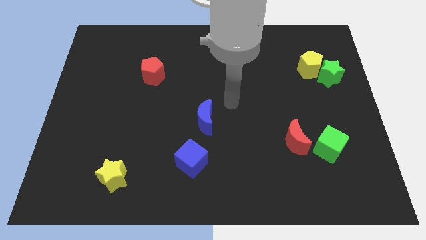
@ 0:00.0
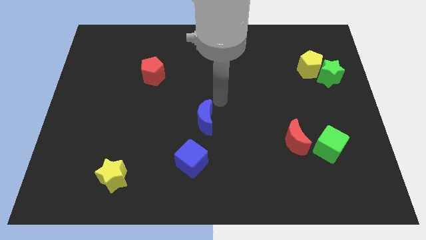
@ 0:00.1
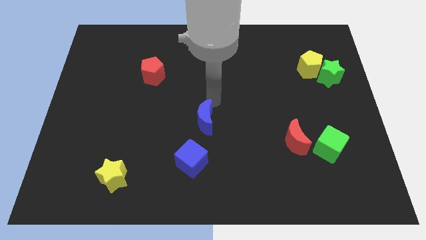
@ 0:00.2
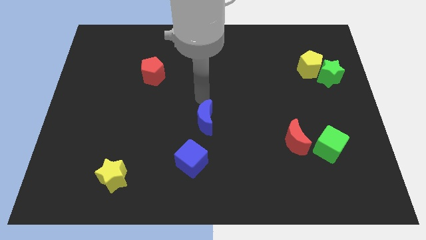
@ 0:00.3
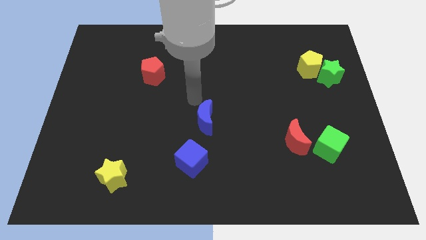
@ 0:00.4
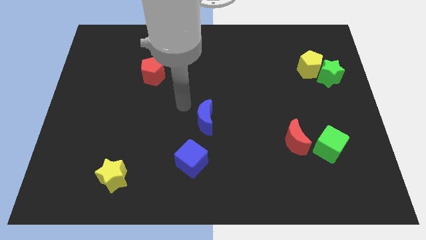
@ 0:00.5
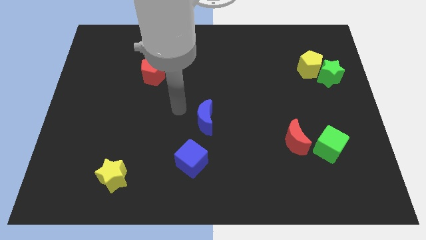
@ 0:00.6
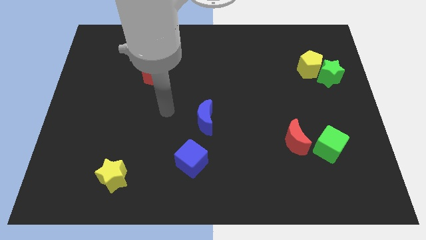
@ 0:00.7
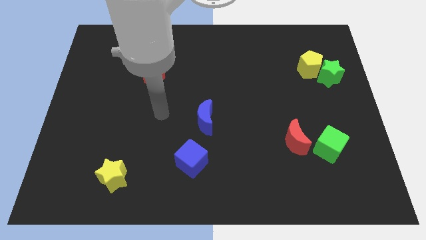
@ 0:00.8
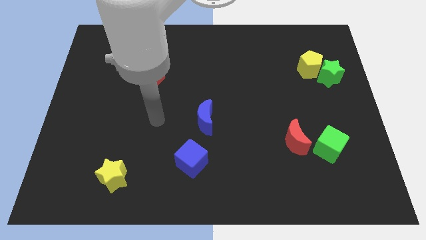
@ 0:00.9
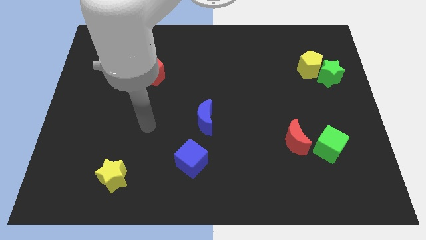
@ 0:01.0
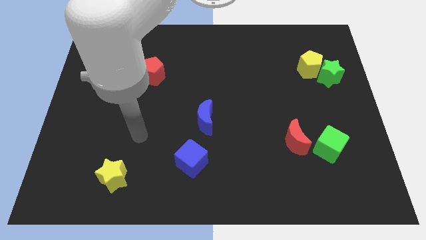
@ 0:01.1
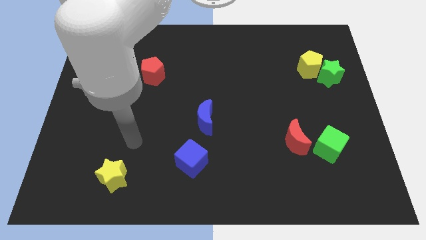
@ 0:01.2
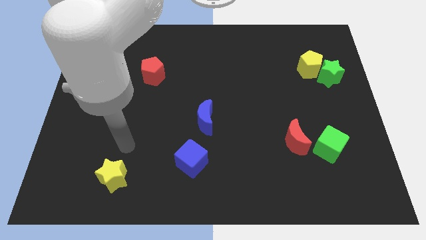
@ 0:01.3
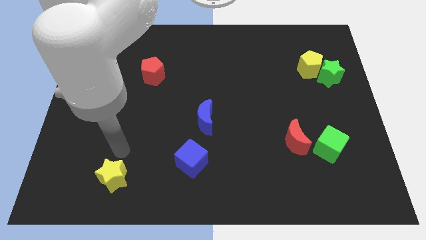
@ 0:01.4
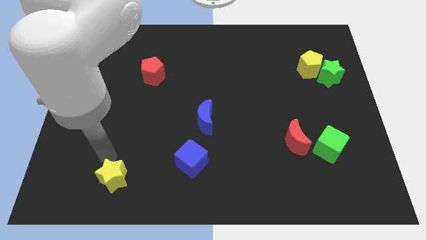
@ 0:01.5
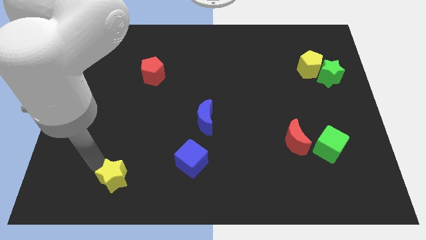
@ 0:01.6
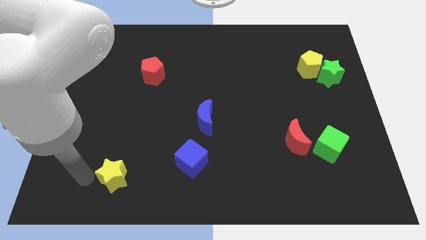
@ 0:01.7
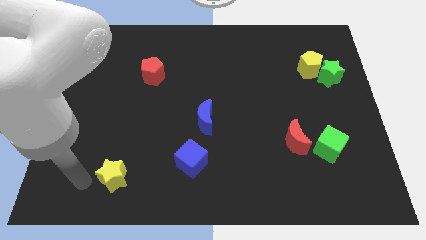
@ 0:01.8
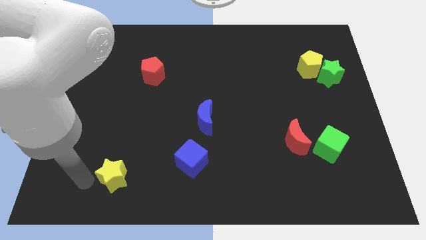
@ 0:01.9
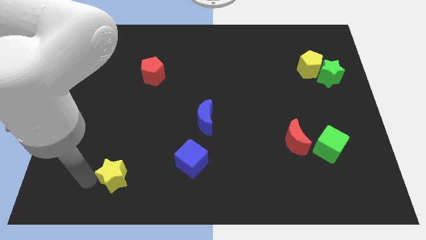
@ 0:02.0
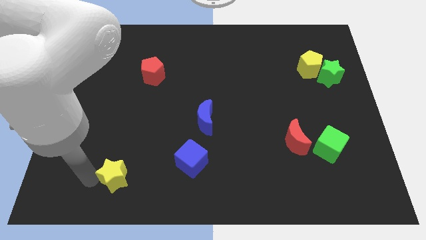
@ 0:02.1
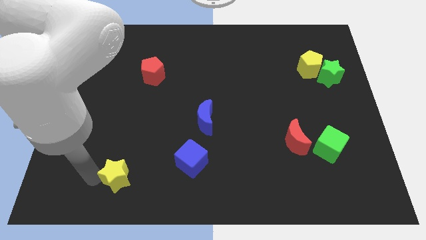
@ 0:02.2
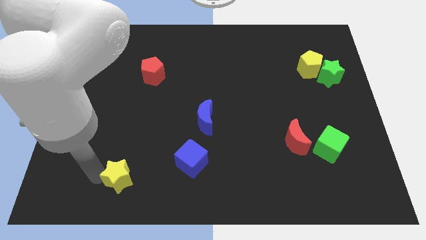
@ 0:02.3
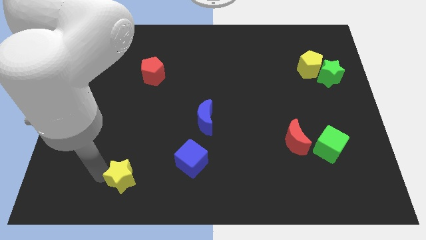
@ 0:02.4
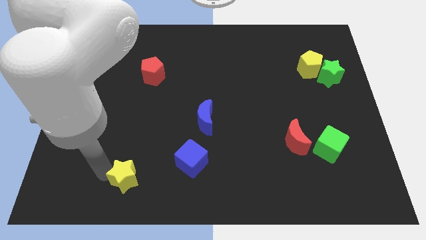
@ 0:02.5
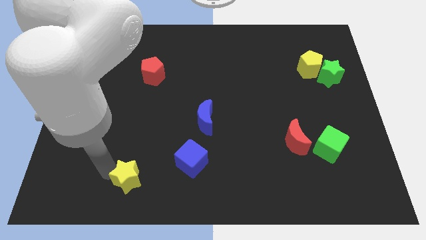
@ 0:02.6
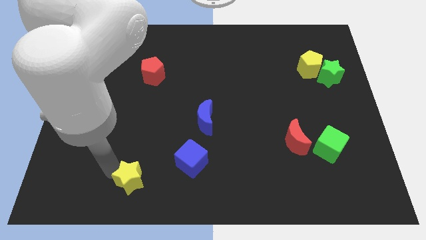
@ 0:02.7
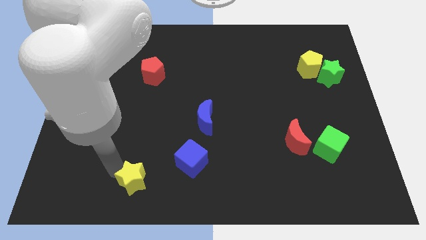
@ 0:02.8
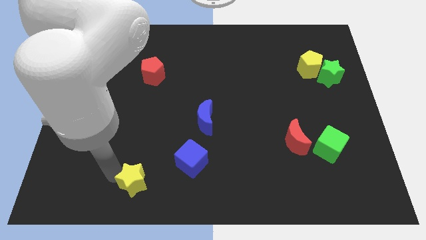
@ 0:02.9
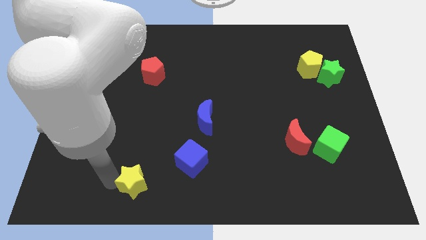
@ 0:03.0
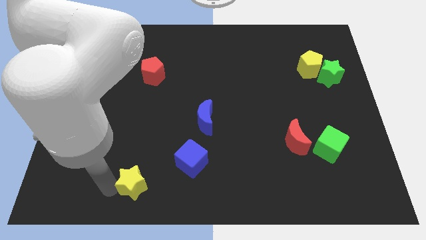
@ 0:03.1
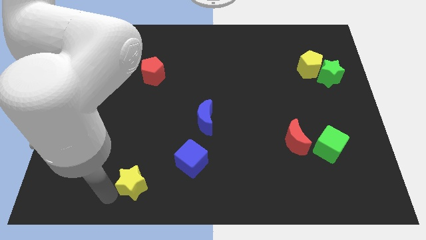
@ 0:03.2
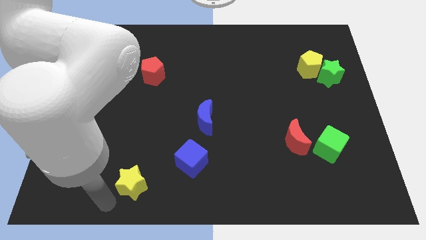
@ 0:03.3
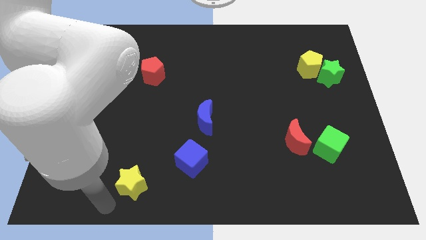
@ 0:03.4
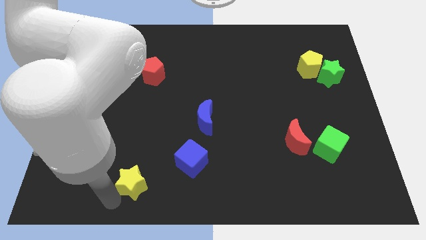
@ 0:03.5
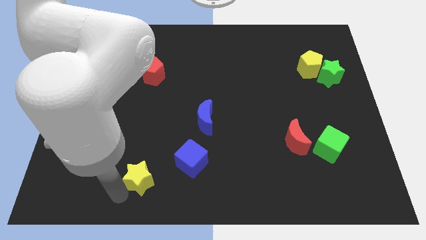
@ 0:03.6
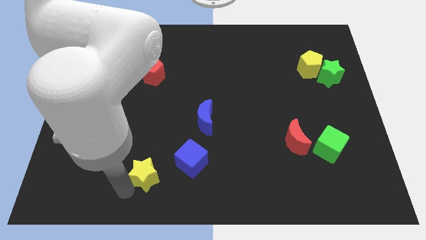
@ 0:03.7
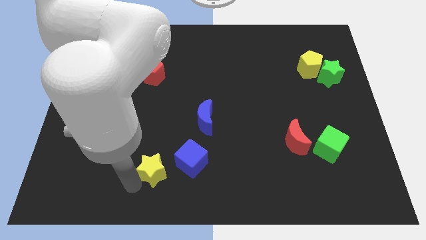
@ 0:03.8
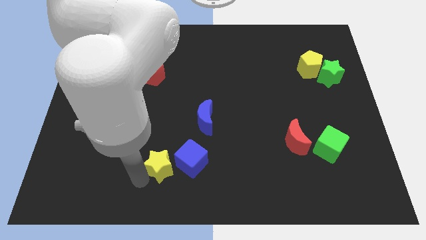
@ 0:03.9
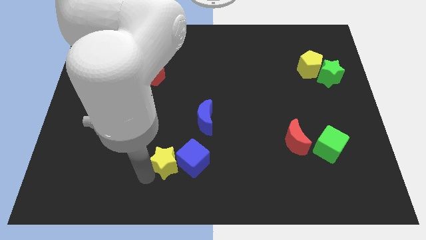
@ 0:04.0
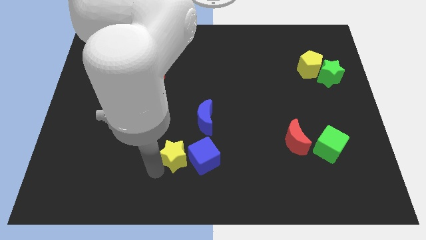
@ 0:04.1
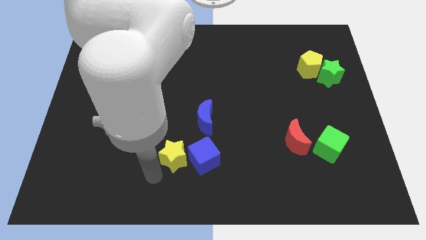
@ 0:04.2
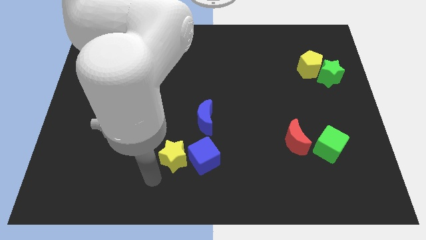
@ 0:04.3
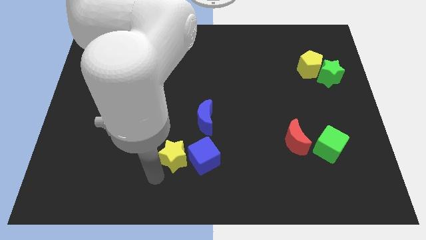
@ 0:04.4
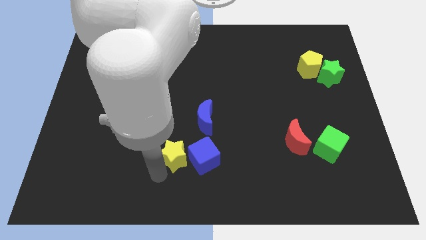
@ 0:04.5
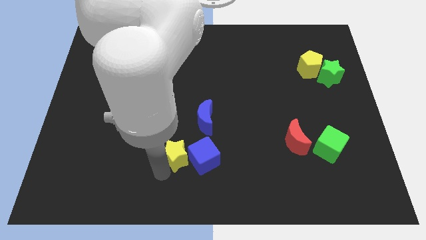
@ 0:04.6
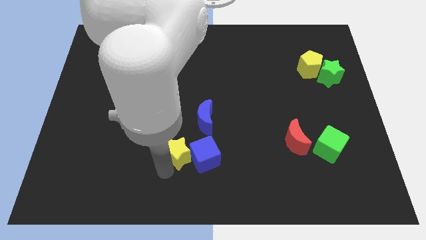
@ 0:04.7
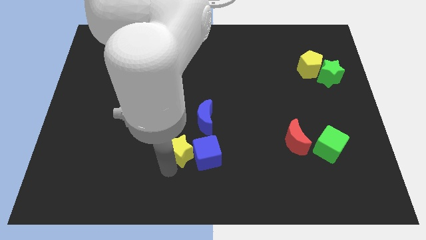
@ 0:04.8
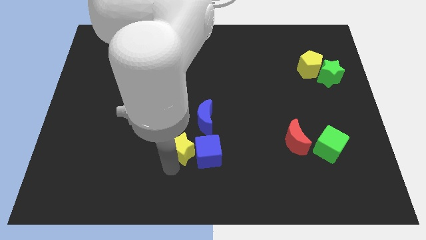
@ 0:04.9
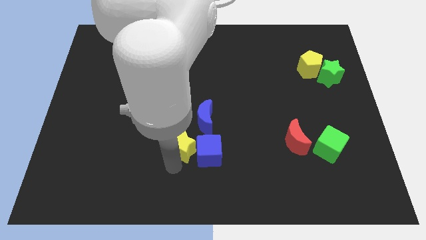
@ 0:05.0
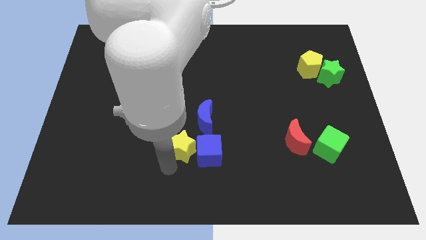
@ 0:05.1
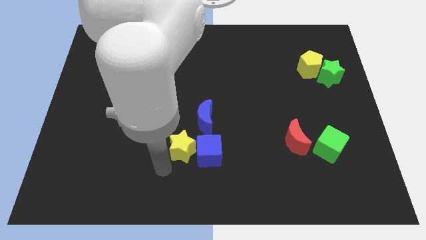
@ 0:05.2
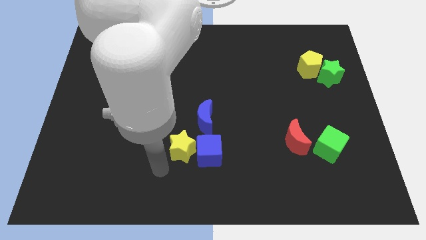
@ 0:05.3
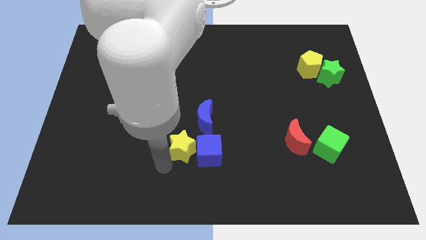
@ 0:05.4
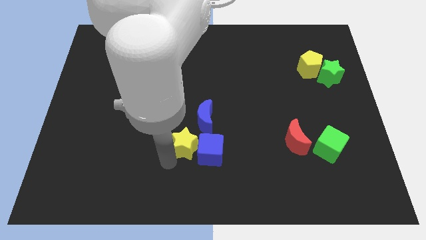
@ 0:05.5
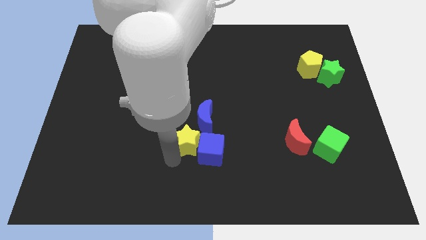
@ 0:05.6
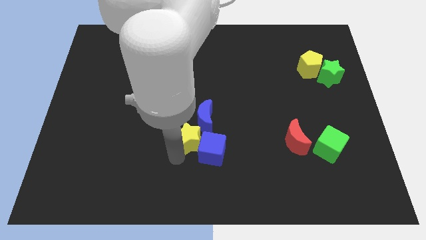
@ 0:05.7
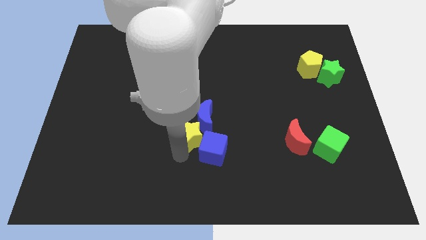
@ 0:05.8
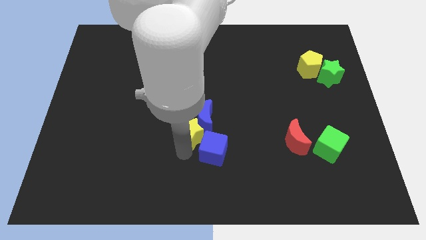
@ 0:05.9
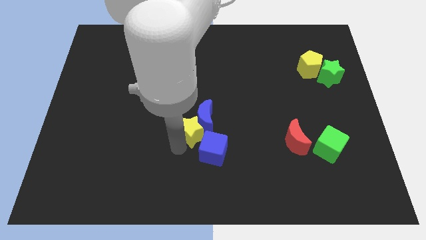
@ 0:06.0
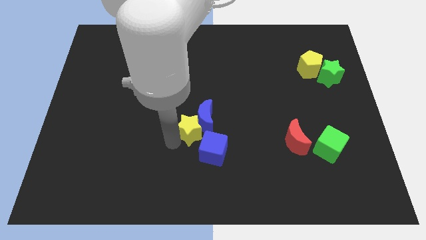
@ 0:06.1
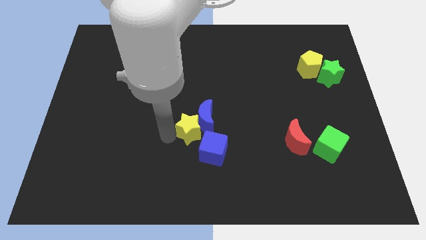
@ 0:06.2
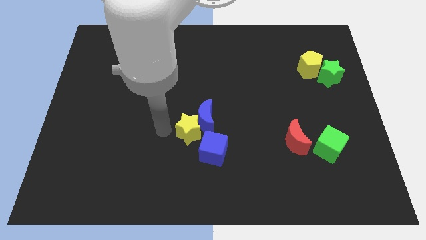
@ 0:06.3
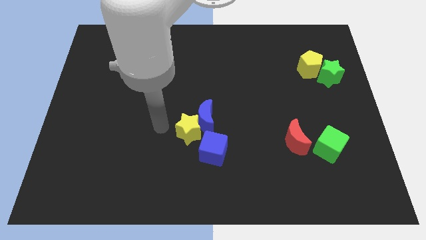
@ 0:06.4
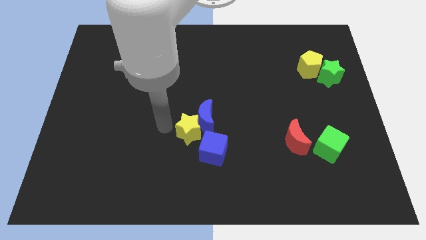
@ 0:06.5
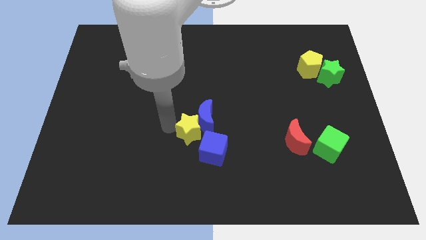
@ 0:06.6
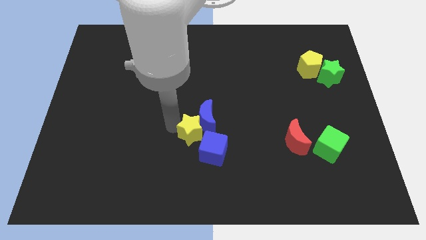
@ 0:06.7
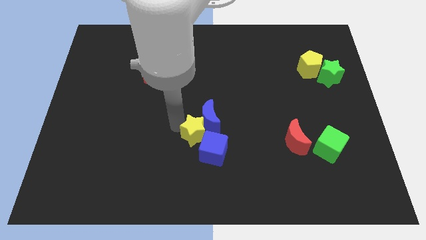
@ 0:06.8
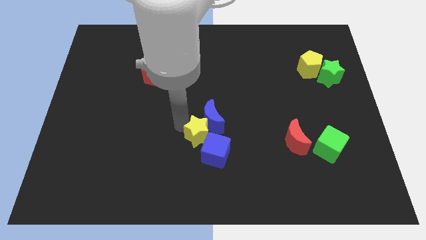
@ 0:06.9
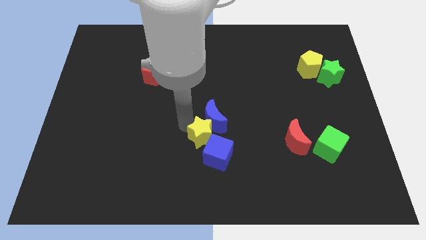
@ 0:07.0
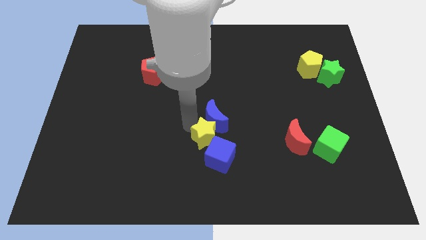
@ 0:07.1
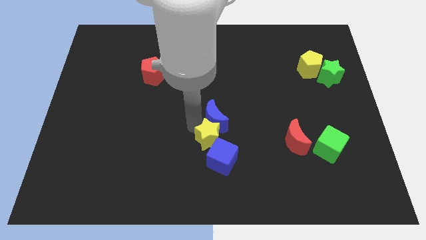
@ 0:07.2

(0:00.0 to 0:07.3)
push the yellow star diagonally down and to the right of the blue moon
